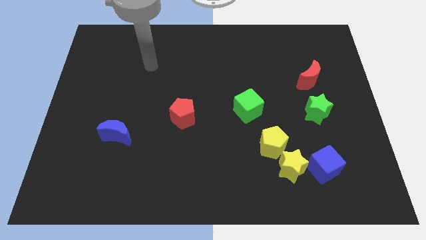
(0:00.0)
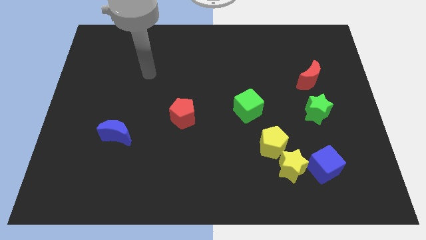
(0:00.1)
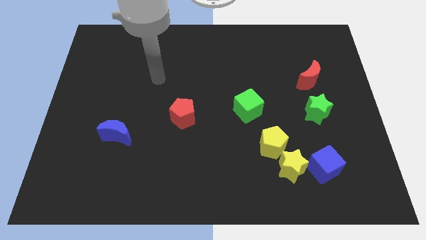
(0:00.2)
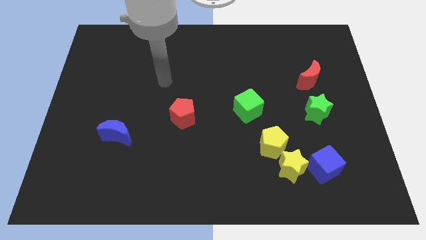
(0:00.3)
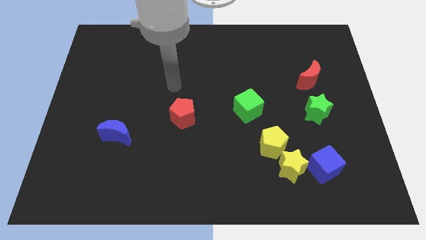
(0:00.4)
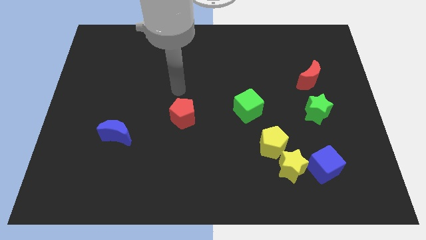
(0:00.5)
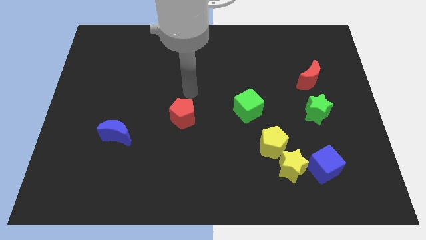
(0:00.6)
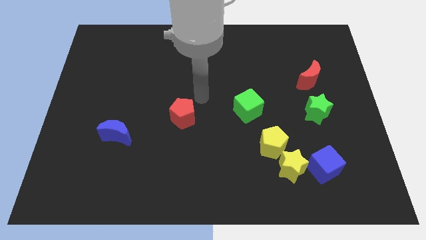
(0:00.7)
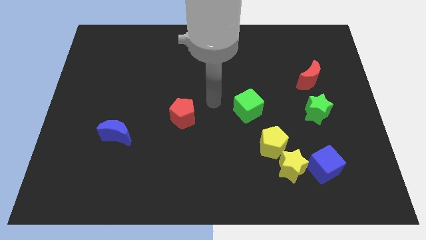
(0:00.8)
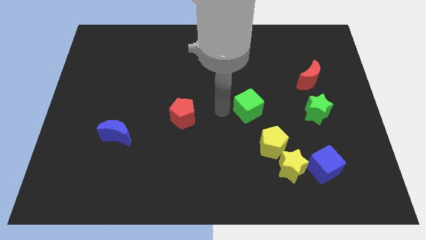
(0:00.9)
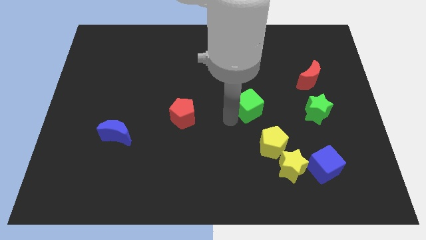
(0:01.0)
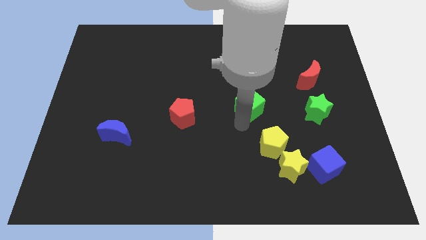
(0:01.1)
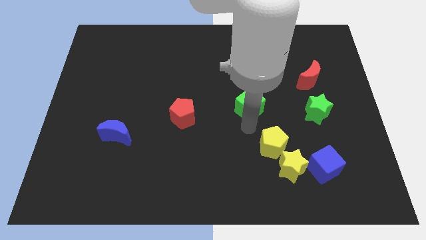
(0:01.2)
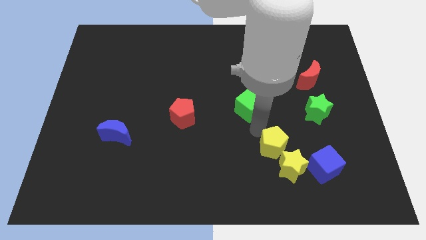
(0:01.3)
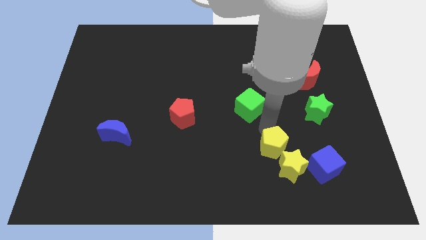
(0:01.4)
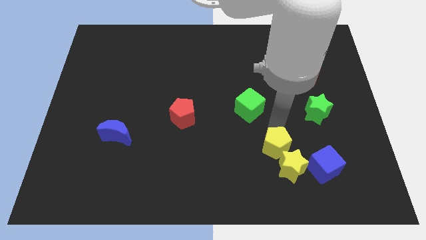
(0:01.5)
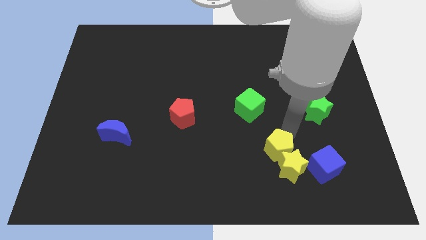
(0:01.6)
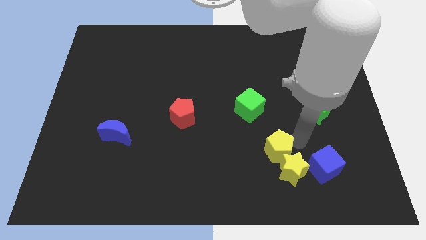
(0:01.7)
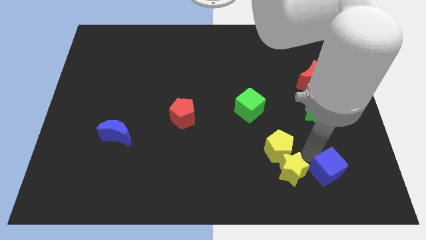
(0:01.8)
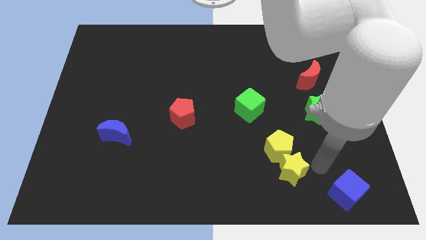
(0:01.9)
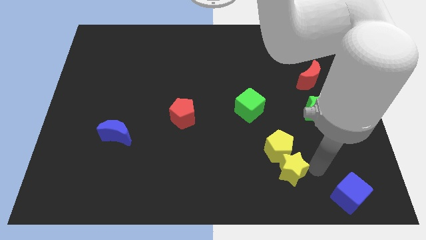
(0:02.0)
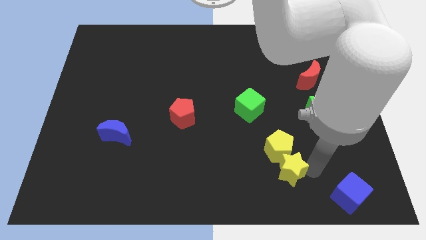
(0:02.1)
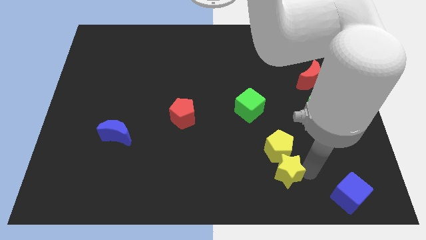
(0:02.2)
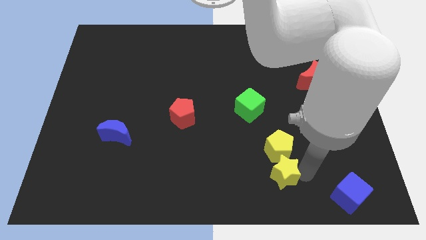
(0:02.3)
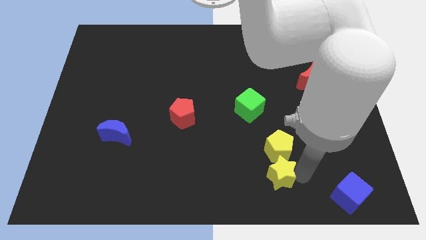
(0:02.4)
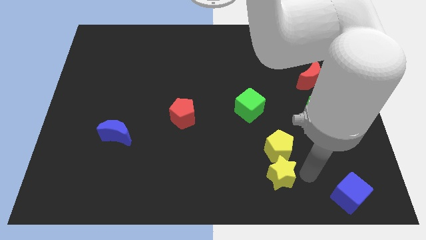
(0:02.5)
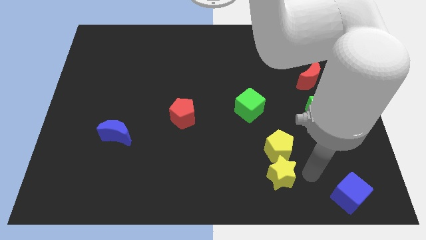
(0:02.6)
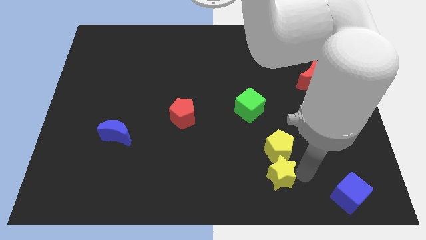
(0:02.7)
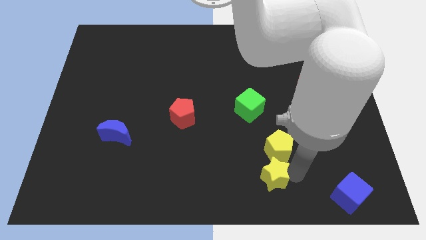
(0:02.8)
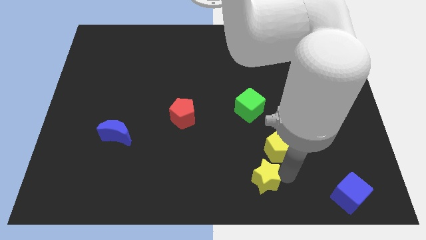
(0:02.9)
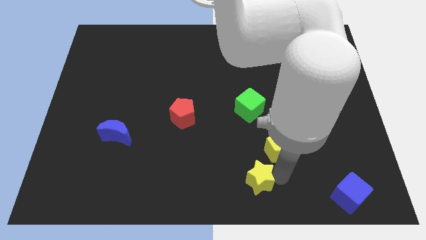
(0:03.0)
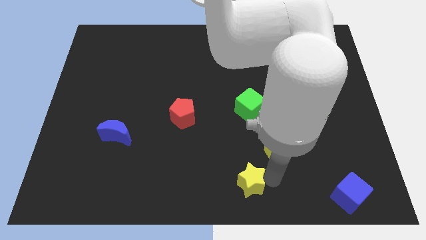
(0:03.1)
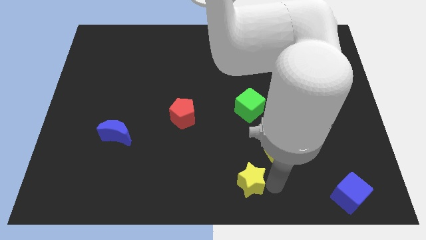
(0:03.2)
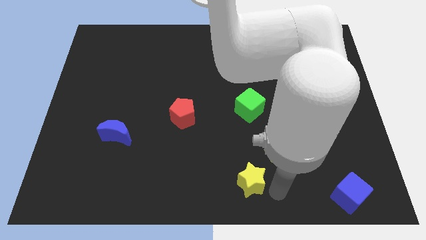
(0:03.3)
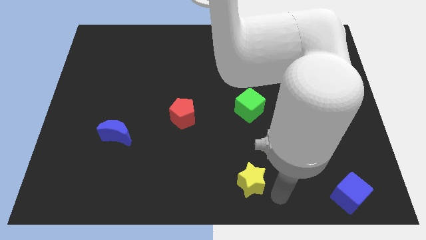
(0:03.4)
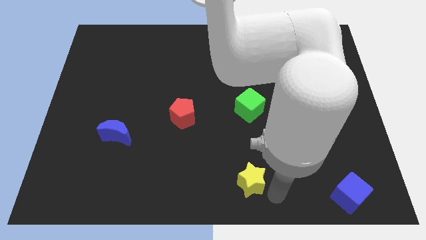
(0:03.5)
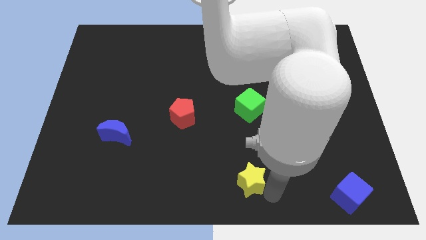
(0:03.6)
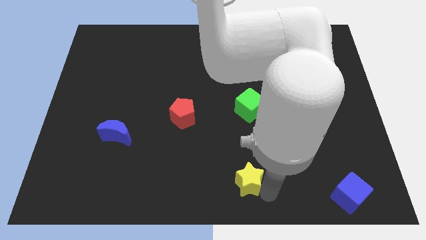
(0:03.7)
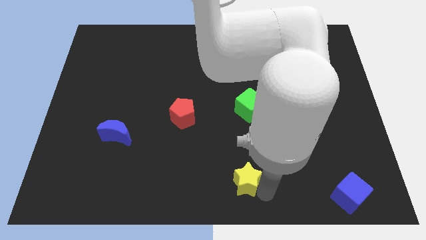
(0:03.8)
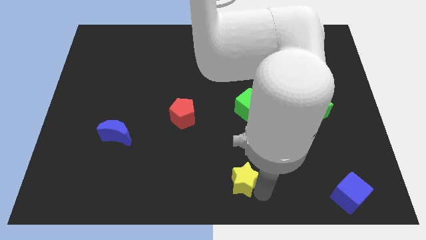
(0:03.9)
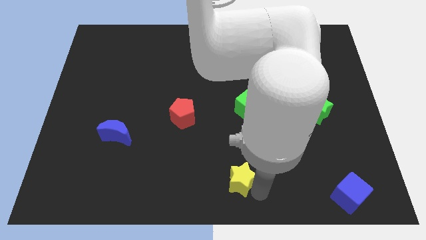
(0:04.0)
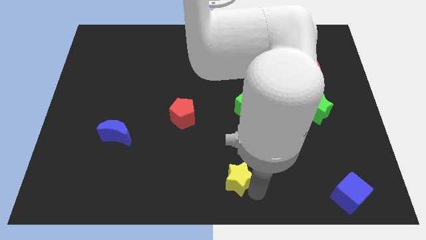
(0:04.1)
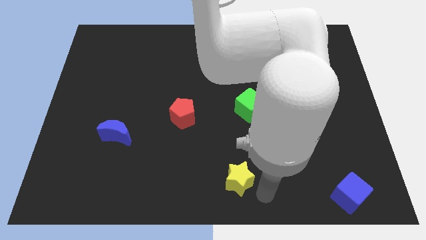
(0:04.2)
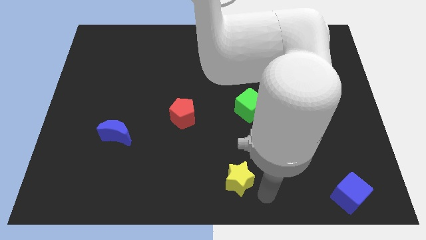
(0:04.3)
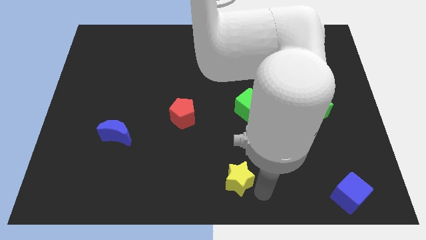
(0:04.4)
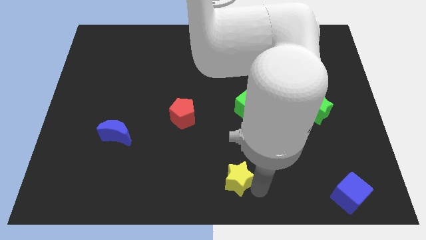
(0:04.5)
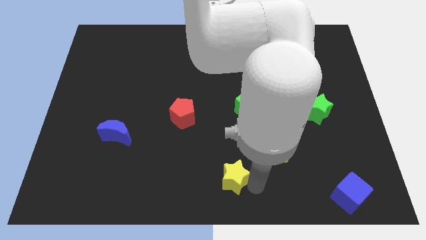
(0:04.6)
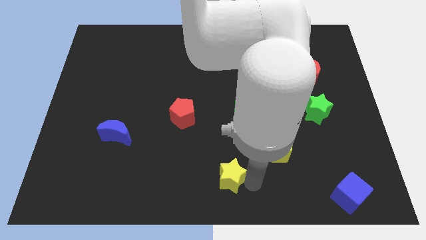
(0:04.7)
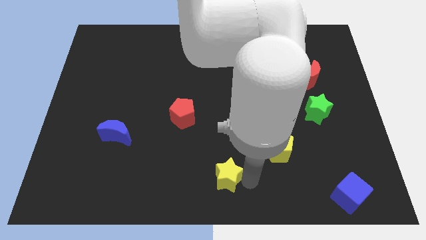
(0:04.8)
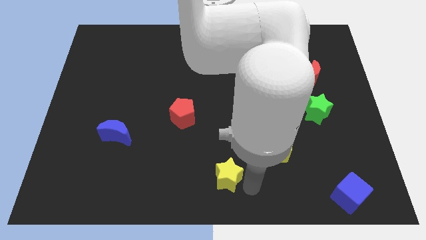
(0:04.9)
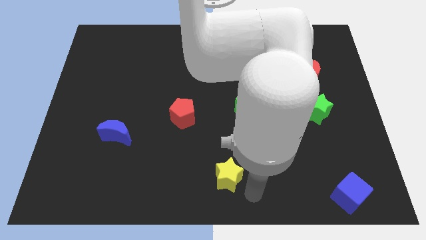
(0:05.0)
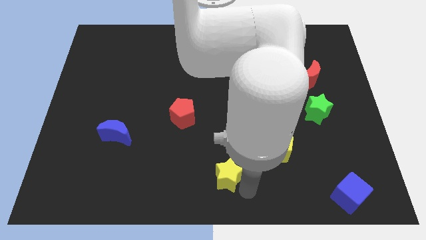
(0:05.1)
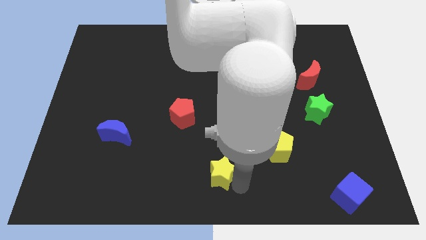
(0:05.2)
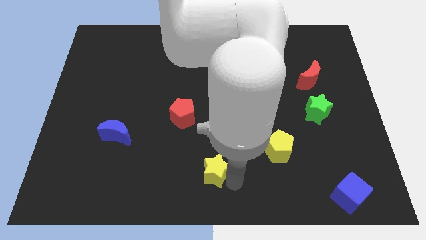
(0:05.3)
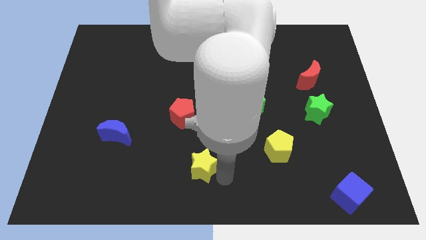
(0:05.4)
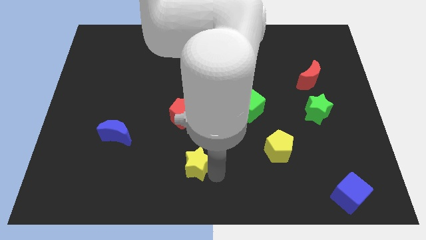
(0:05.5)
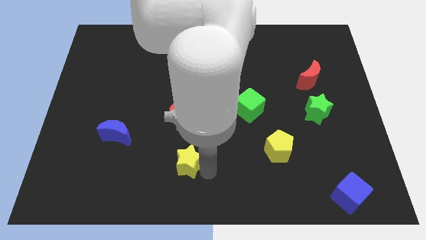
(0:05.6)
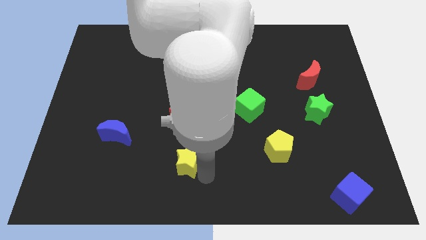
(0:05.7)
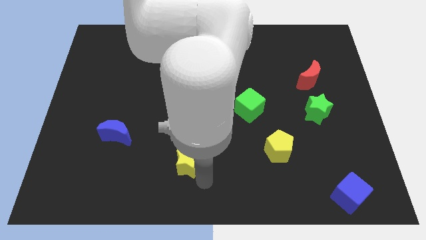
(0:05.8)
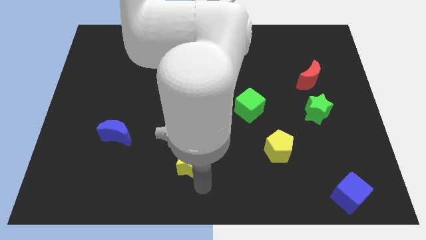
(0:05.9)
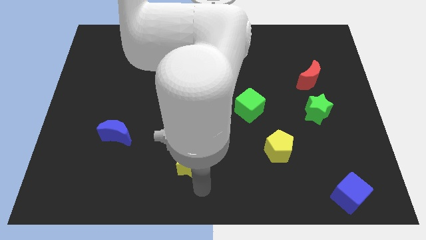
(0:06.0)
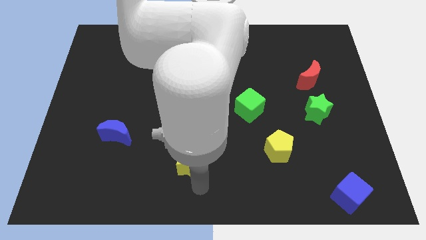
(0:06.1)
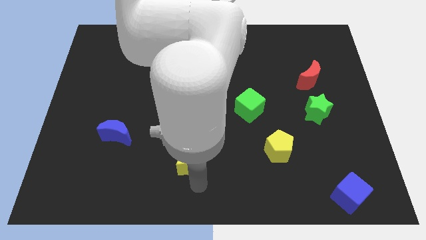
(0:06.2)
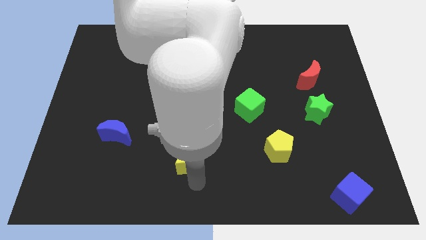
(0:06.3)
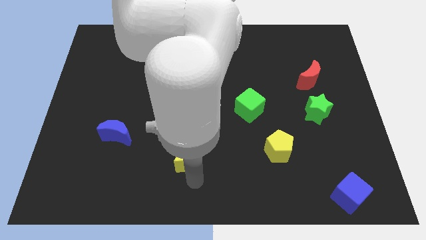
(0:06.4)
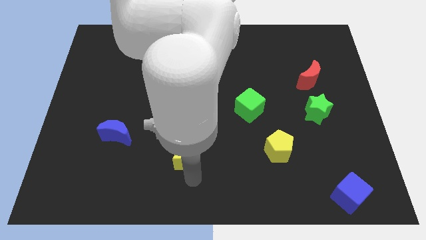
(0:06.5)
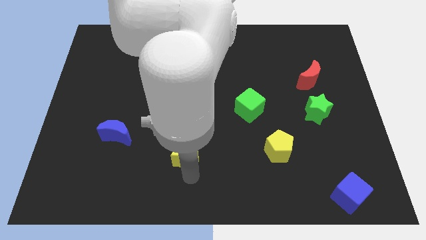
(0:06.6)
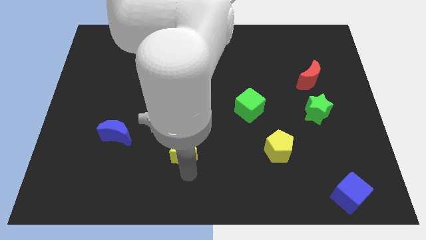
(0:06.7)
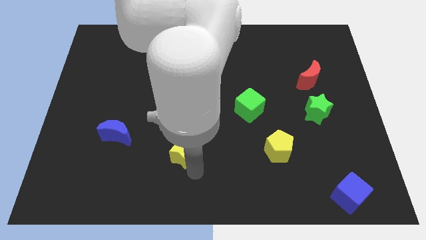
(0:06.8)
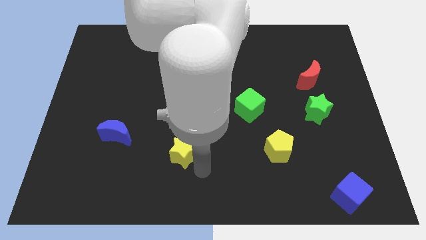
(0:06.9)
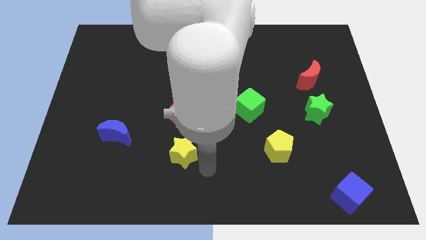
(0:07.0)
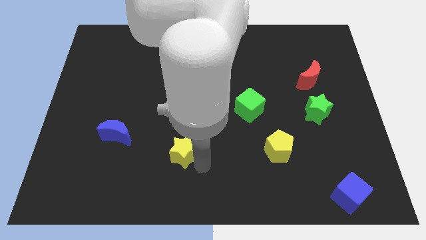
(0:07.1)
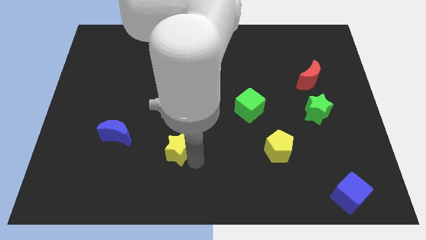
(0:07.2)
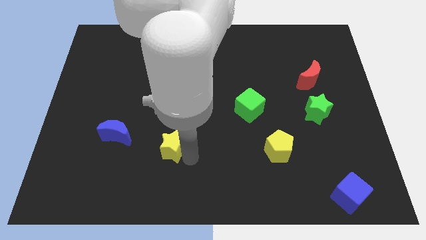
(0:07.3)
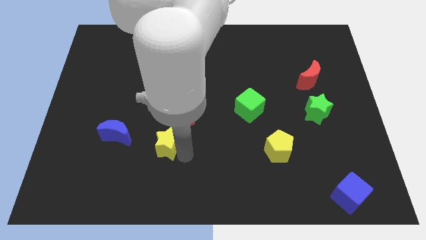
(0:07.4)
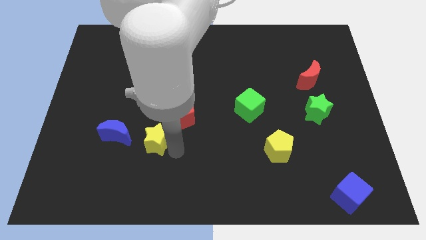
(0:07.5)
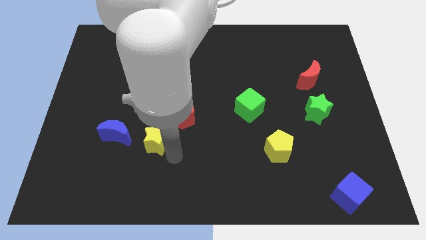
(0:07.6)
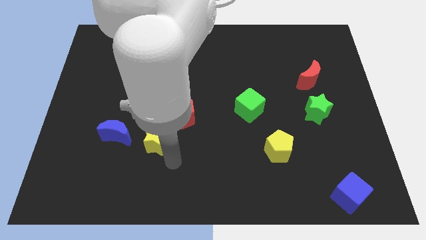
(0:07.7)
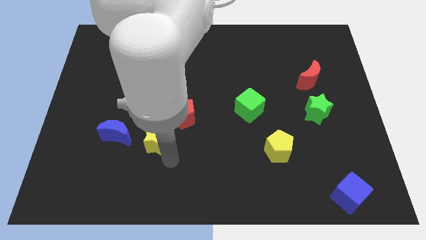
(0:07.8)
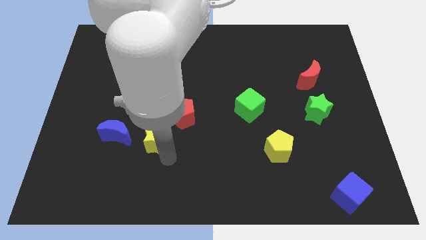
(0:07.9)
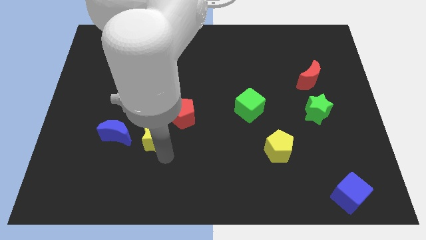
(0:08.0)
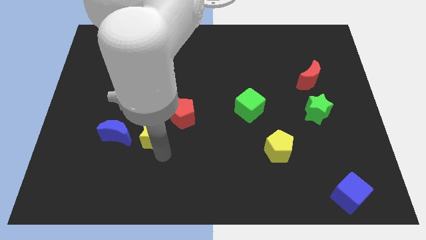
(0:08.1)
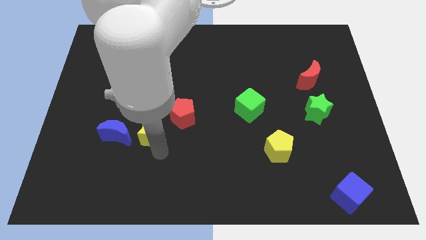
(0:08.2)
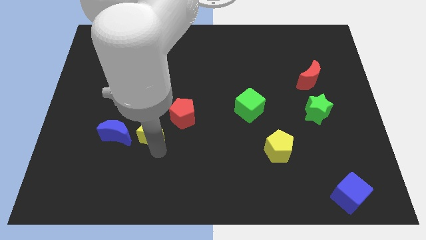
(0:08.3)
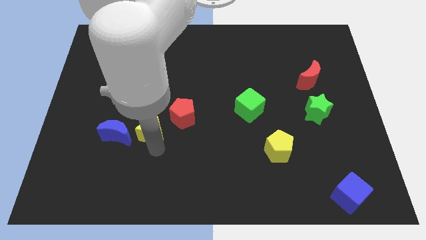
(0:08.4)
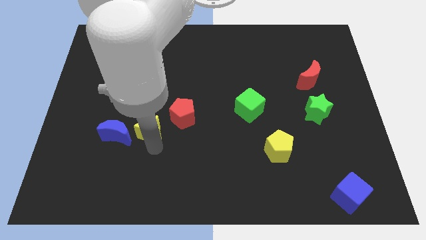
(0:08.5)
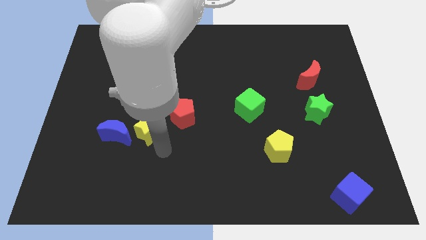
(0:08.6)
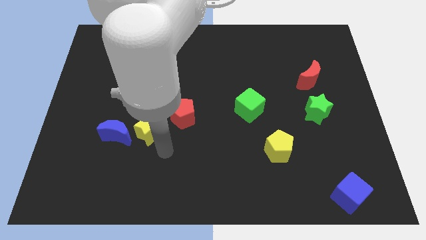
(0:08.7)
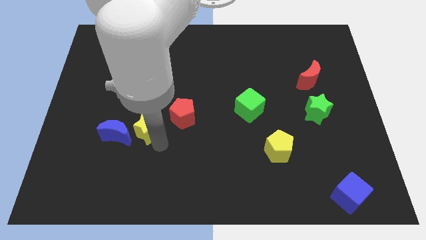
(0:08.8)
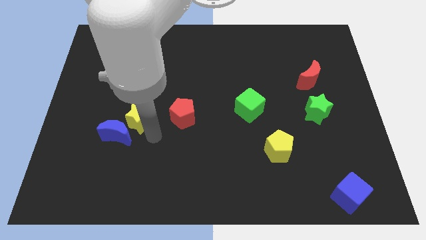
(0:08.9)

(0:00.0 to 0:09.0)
slide the yellow star above the blue moon
